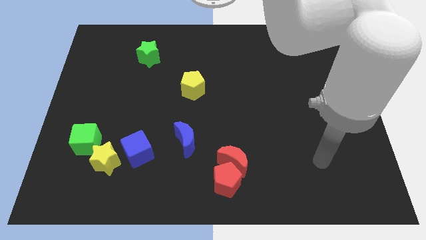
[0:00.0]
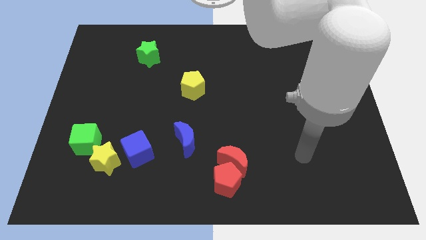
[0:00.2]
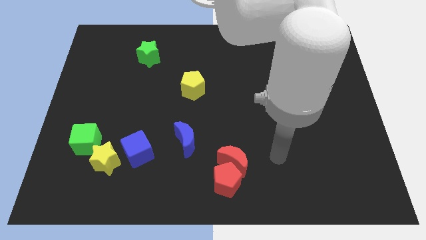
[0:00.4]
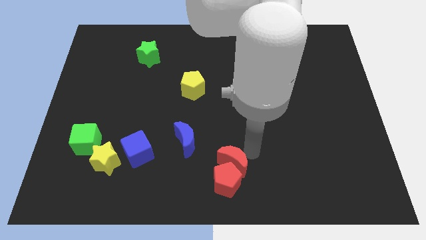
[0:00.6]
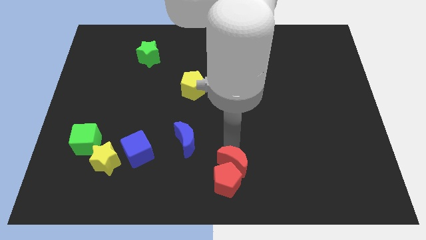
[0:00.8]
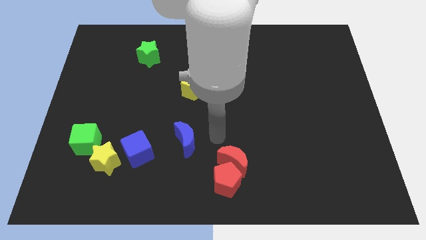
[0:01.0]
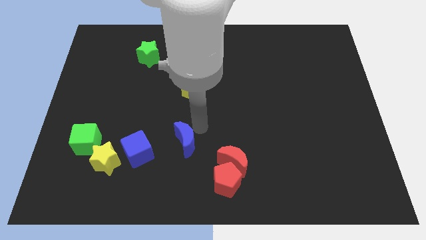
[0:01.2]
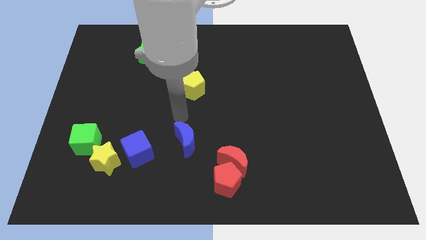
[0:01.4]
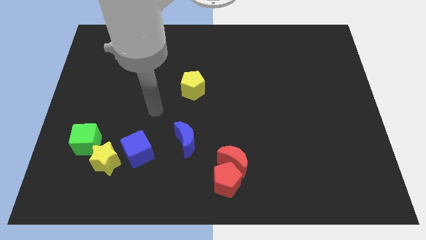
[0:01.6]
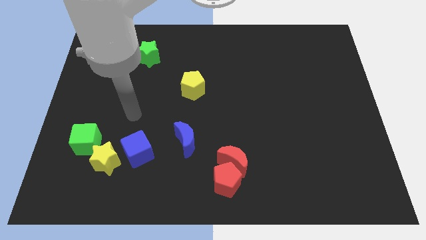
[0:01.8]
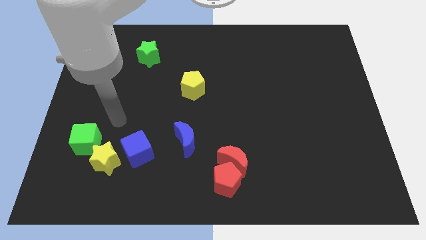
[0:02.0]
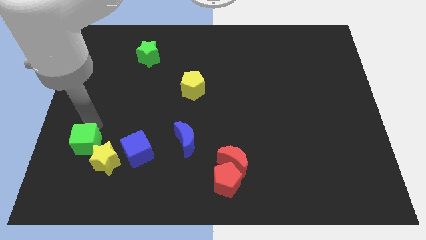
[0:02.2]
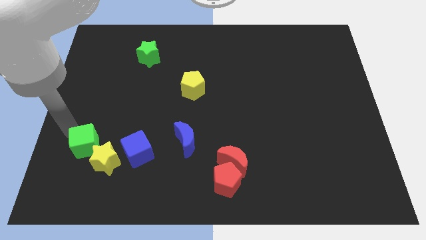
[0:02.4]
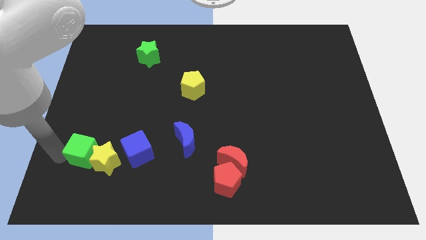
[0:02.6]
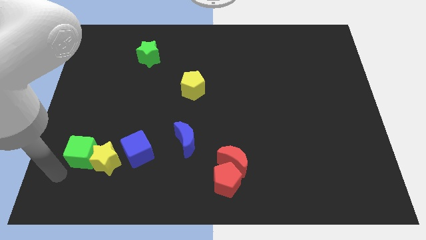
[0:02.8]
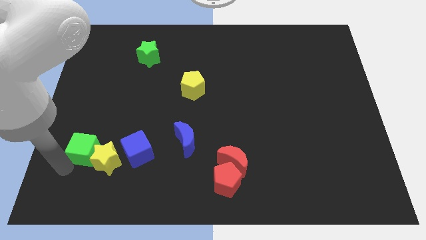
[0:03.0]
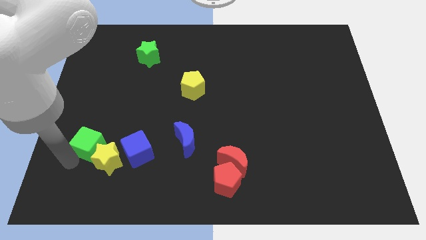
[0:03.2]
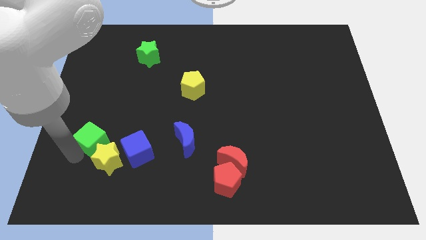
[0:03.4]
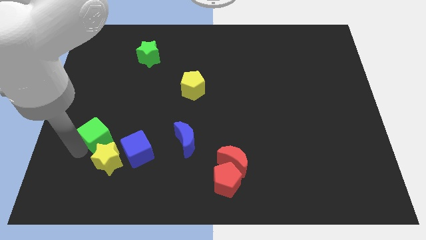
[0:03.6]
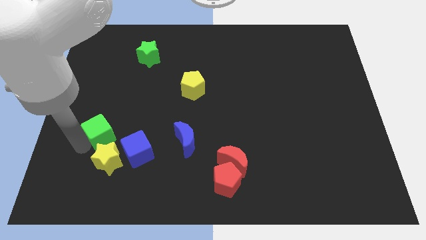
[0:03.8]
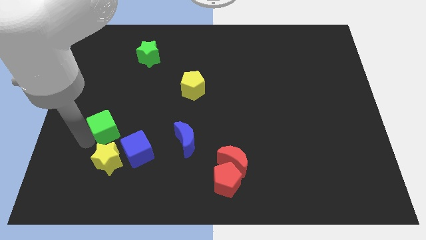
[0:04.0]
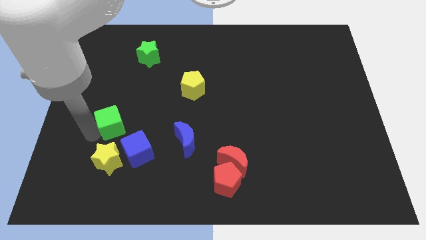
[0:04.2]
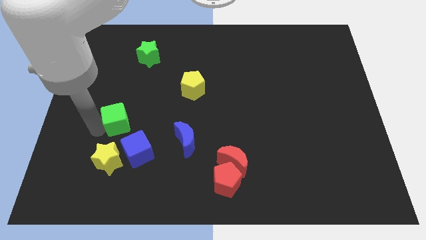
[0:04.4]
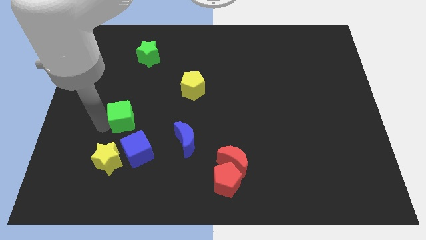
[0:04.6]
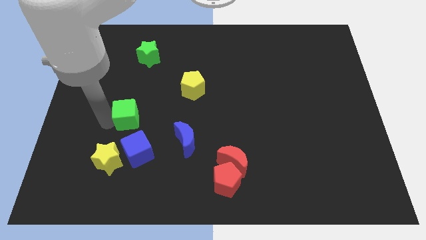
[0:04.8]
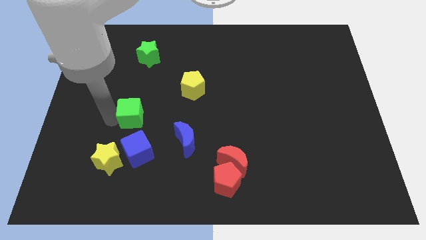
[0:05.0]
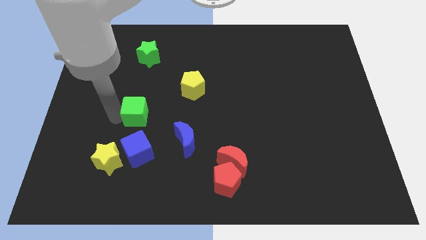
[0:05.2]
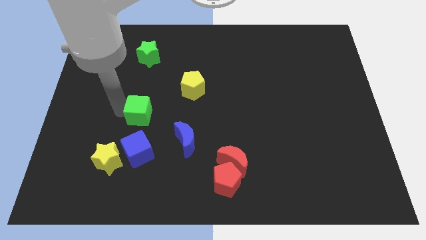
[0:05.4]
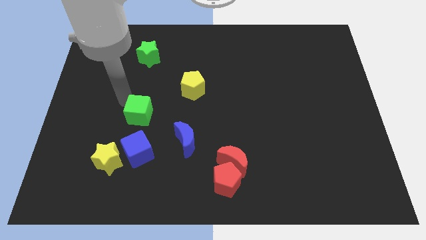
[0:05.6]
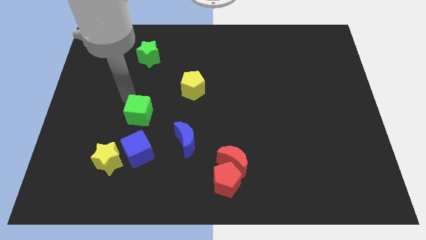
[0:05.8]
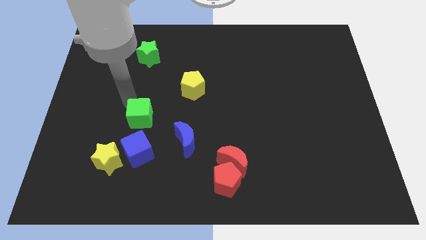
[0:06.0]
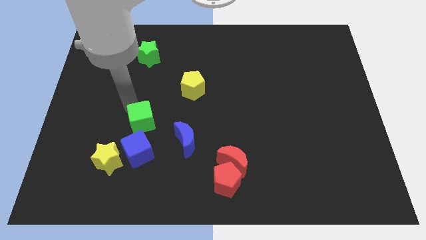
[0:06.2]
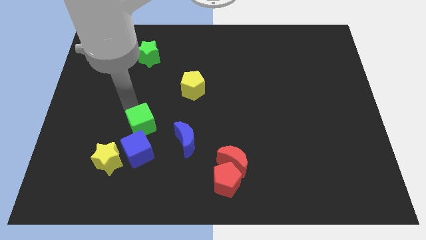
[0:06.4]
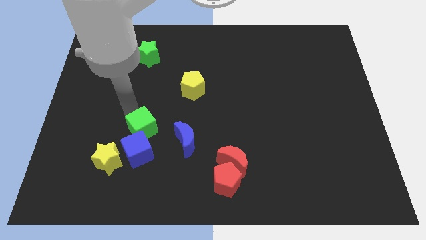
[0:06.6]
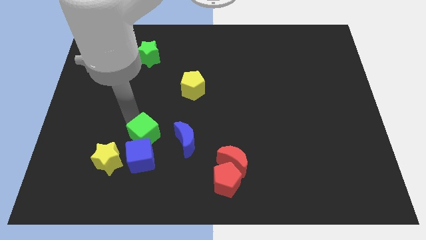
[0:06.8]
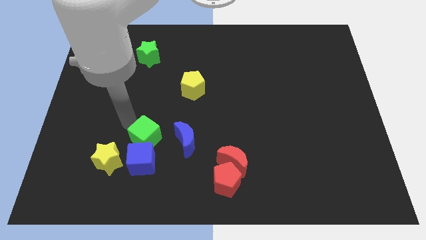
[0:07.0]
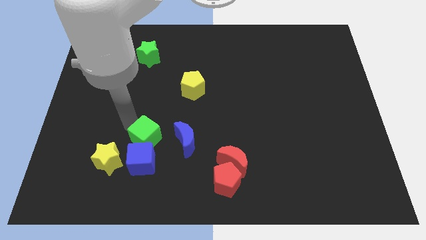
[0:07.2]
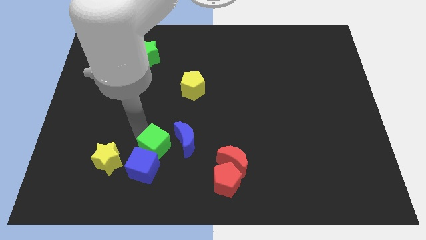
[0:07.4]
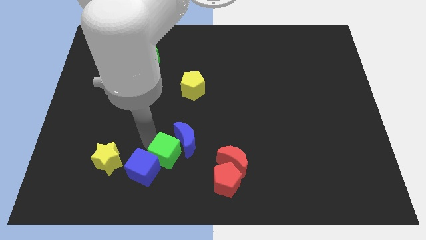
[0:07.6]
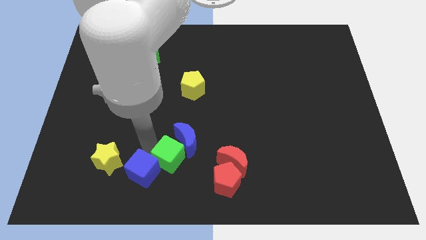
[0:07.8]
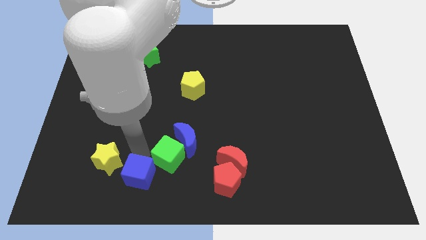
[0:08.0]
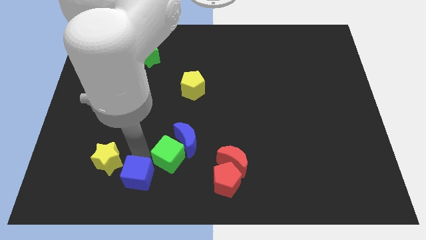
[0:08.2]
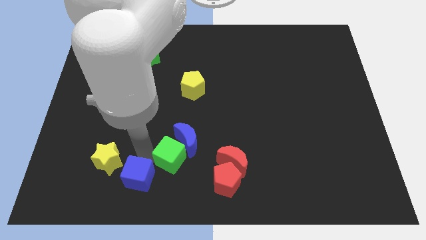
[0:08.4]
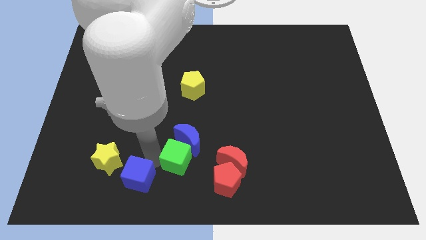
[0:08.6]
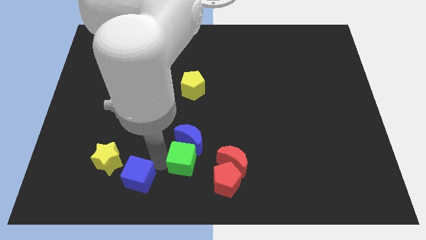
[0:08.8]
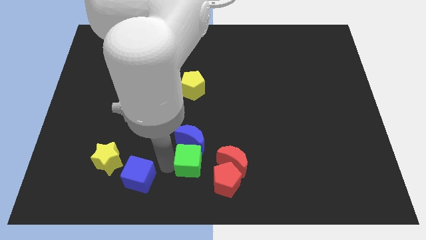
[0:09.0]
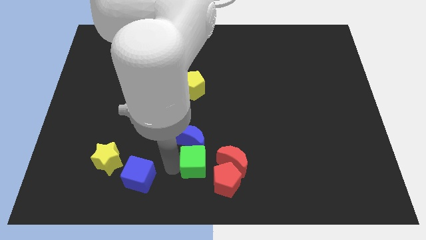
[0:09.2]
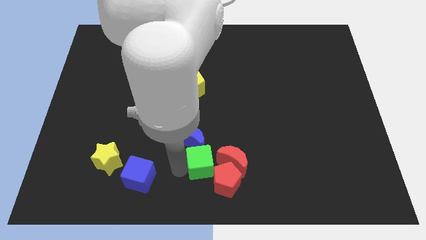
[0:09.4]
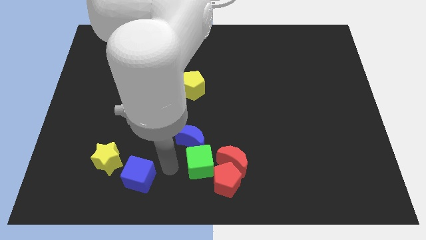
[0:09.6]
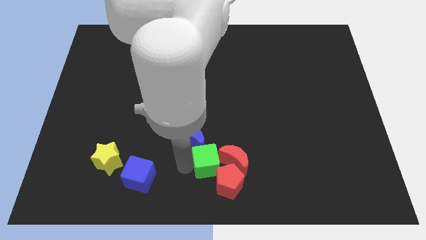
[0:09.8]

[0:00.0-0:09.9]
put the green cube next to the red moon

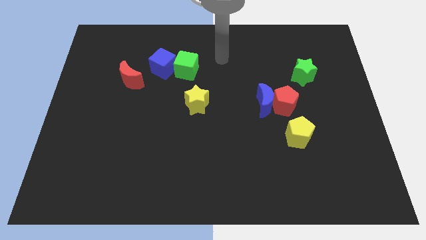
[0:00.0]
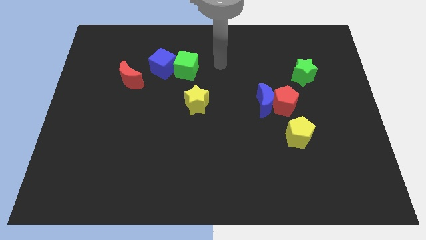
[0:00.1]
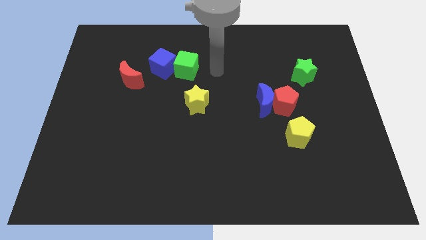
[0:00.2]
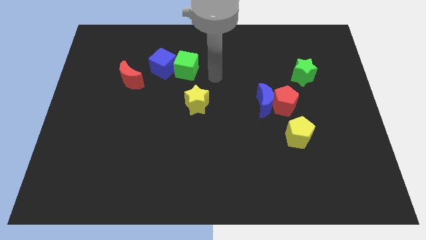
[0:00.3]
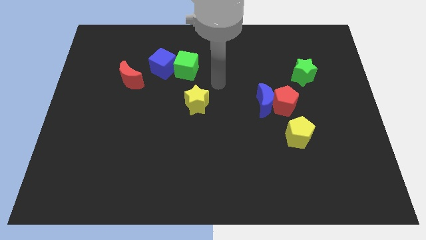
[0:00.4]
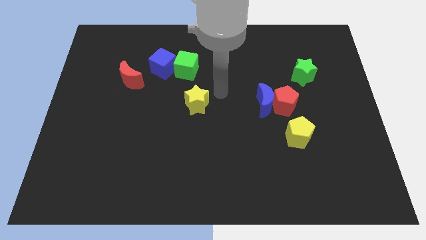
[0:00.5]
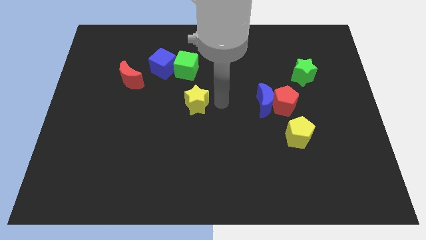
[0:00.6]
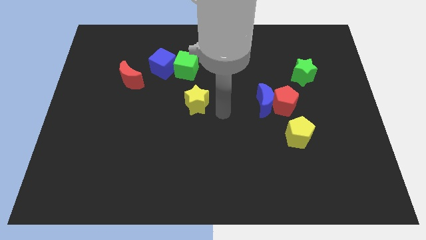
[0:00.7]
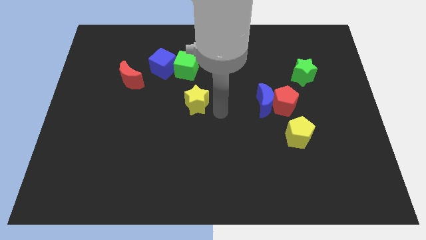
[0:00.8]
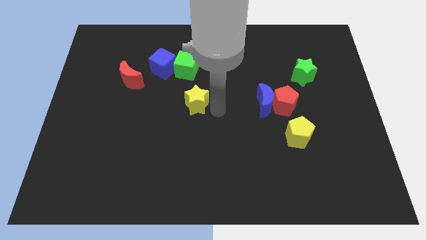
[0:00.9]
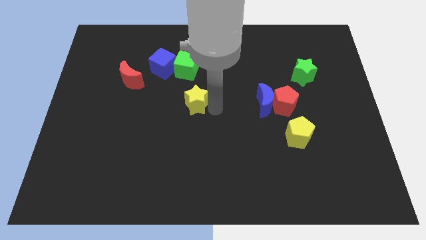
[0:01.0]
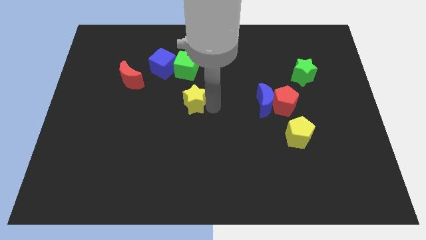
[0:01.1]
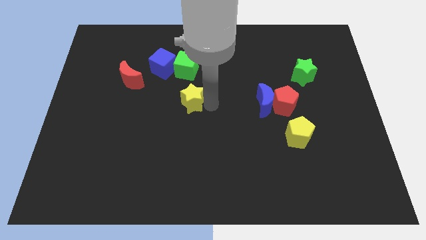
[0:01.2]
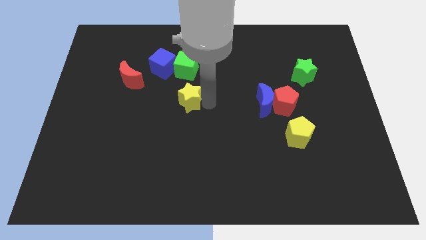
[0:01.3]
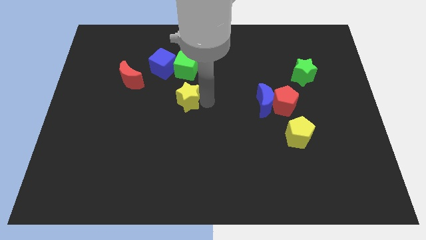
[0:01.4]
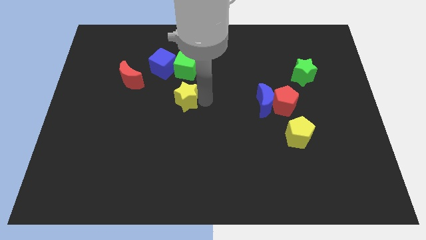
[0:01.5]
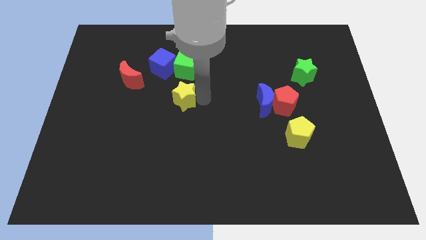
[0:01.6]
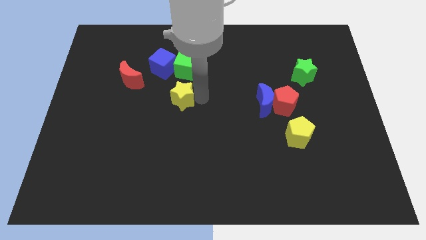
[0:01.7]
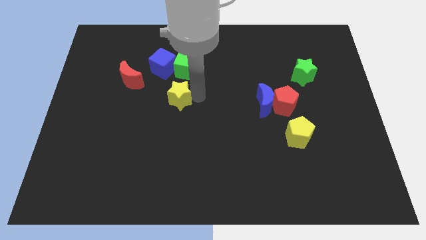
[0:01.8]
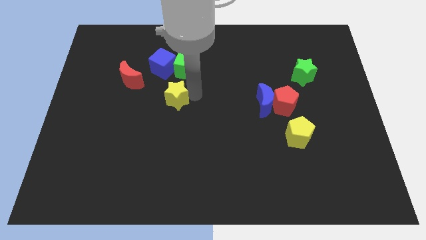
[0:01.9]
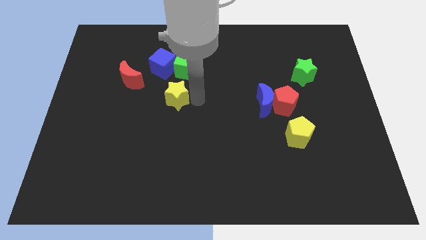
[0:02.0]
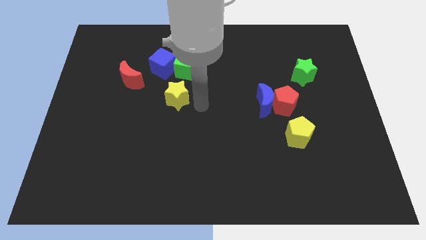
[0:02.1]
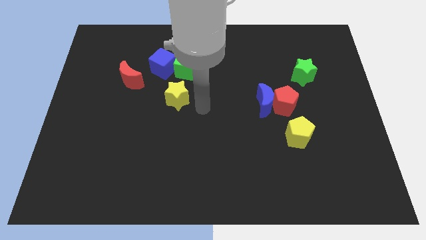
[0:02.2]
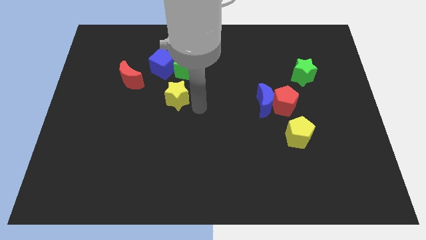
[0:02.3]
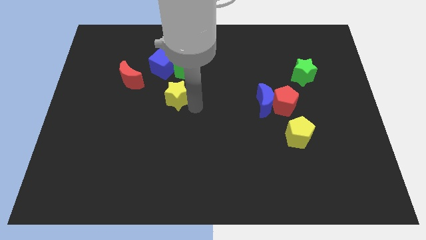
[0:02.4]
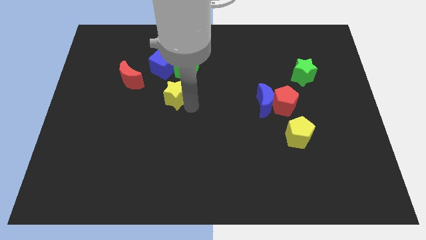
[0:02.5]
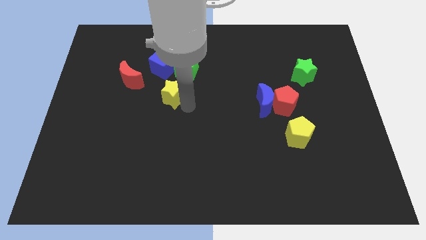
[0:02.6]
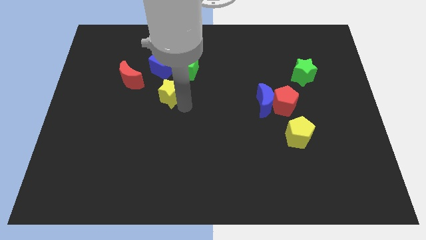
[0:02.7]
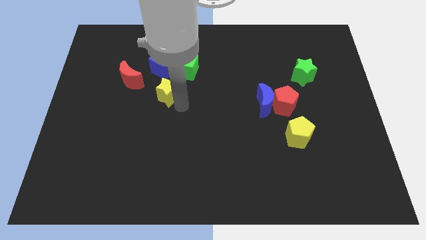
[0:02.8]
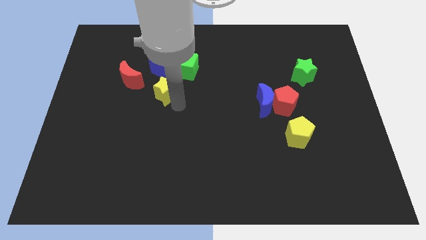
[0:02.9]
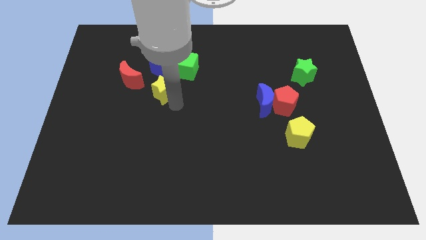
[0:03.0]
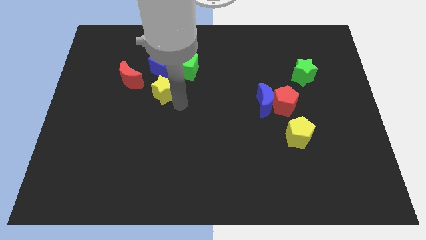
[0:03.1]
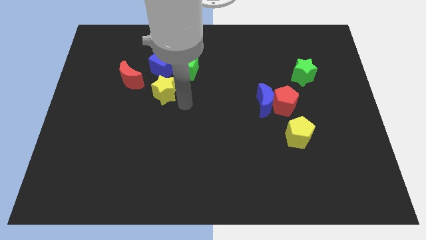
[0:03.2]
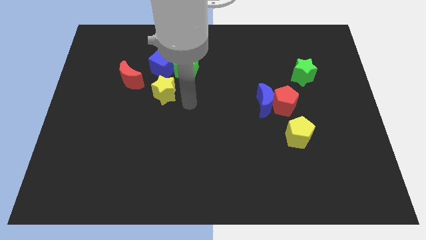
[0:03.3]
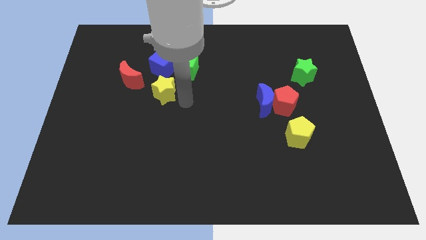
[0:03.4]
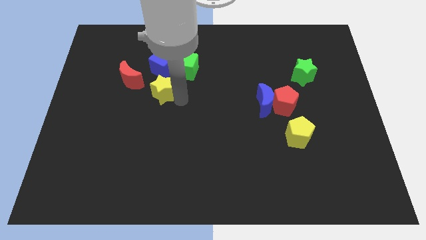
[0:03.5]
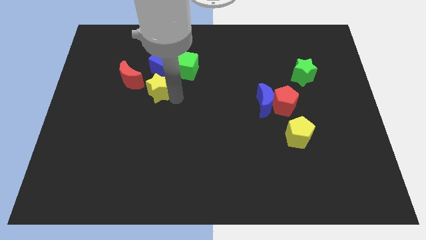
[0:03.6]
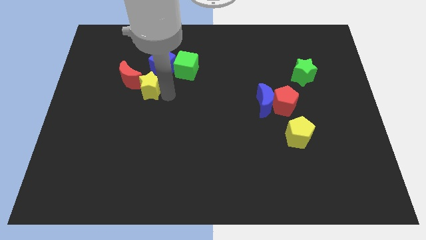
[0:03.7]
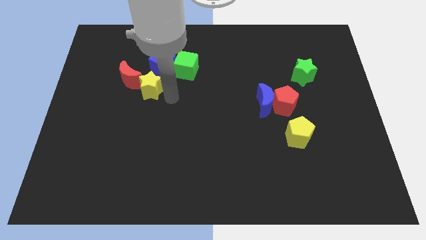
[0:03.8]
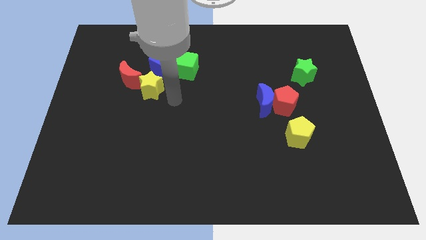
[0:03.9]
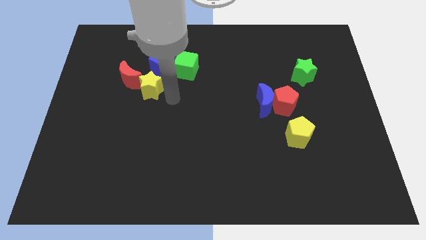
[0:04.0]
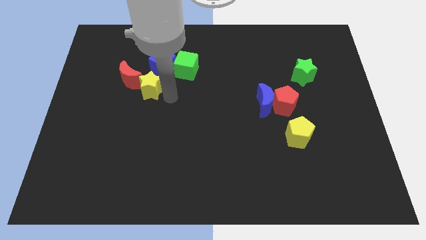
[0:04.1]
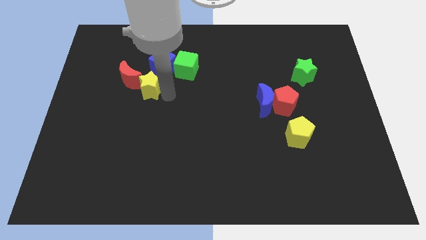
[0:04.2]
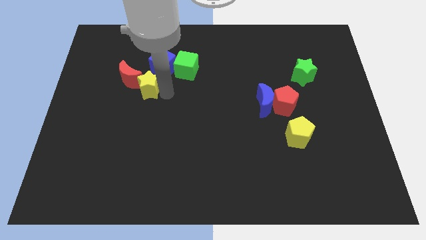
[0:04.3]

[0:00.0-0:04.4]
put the yellow star next to the red moon
